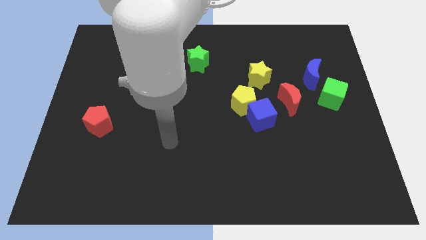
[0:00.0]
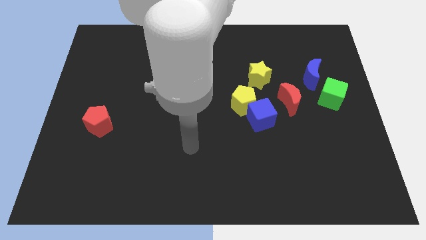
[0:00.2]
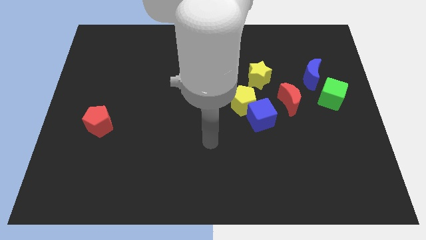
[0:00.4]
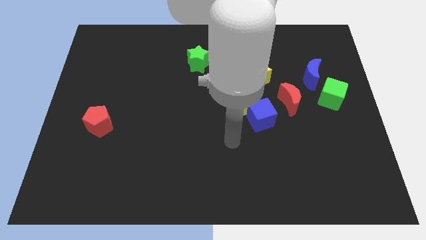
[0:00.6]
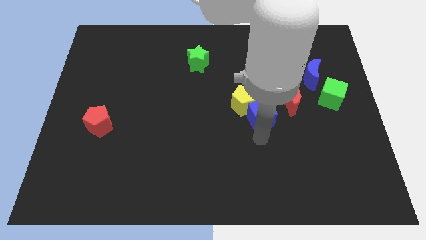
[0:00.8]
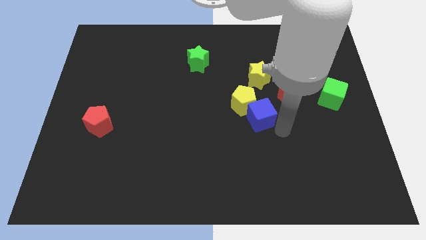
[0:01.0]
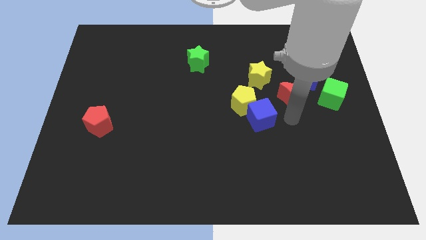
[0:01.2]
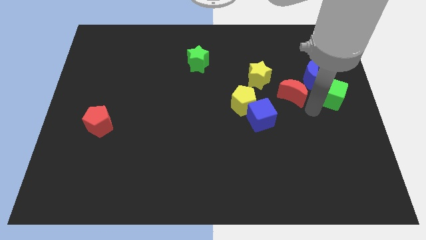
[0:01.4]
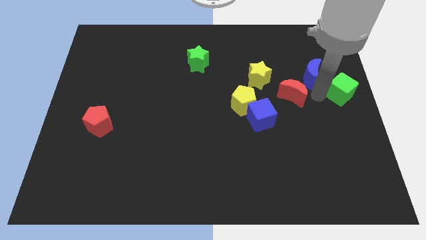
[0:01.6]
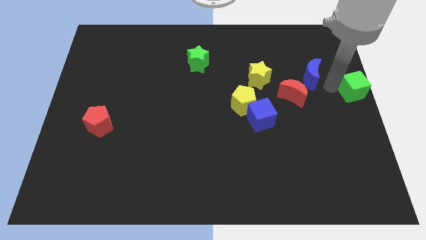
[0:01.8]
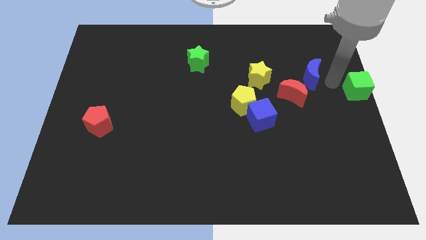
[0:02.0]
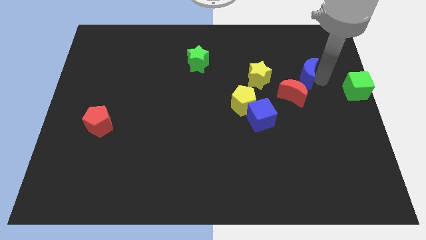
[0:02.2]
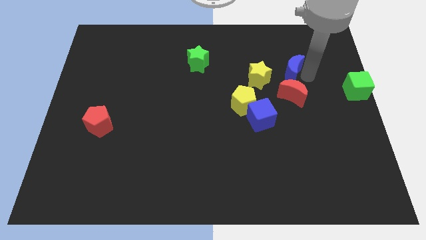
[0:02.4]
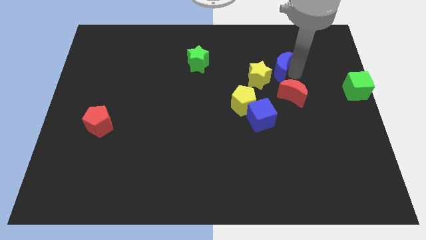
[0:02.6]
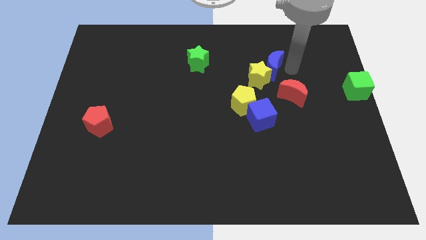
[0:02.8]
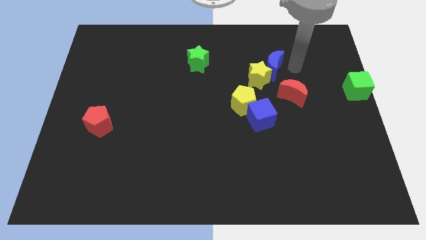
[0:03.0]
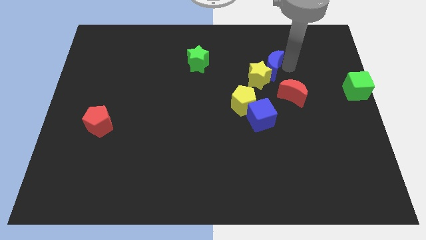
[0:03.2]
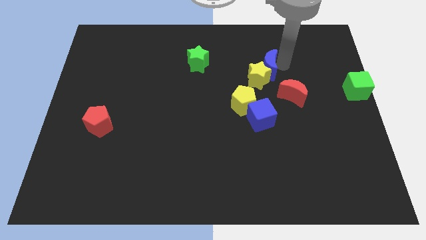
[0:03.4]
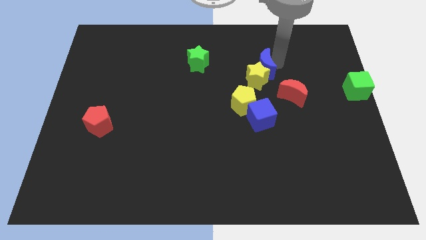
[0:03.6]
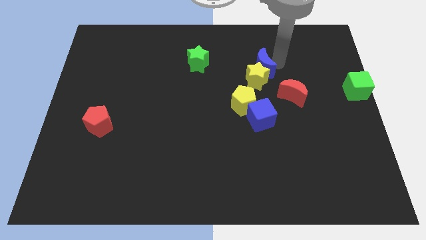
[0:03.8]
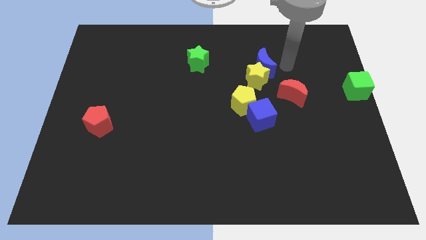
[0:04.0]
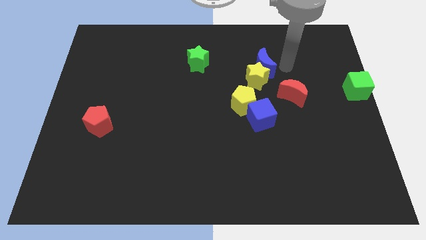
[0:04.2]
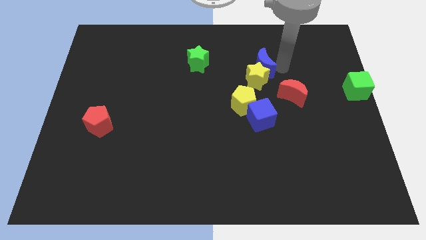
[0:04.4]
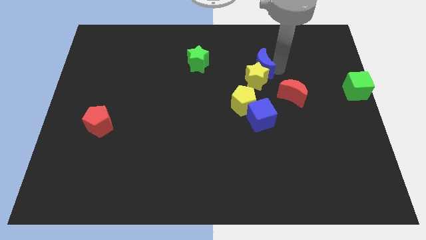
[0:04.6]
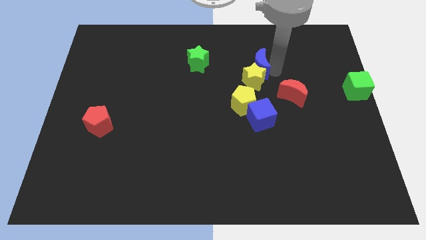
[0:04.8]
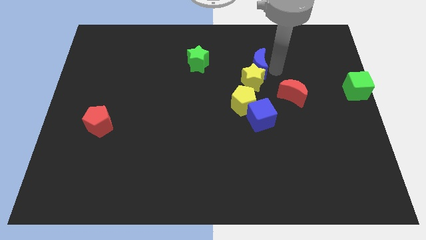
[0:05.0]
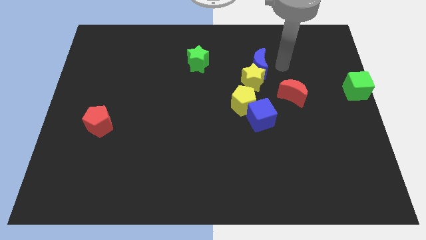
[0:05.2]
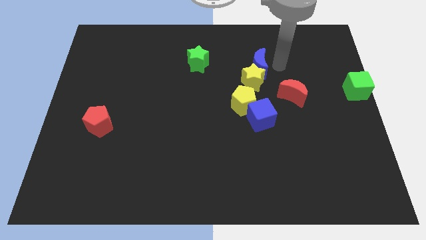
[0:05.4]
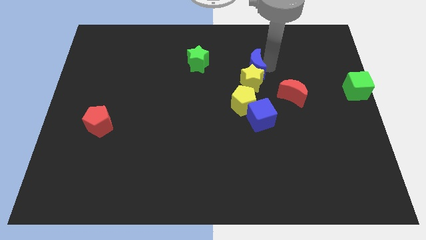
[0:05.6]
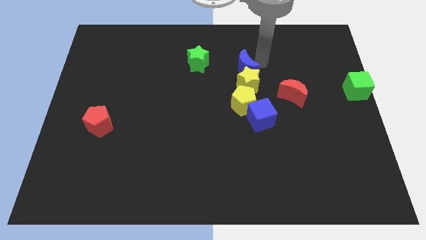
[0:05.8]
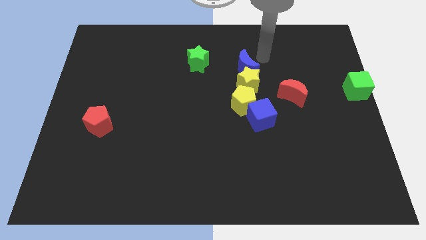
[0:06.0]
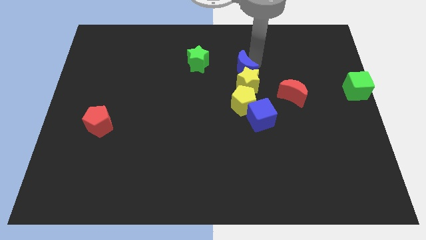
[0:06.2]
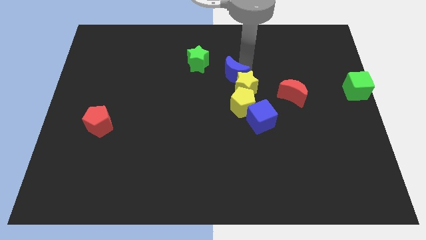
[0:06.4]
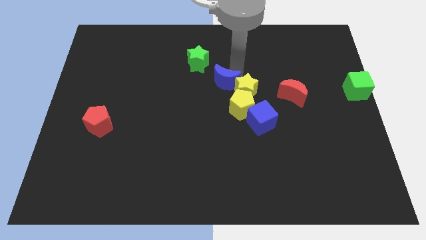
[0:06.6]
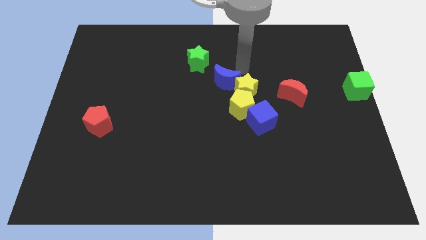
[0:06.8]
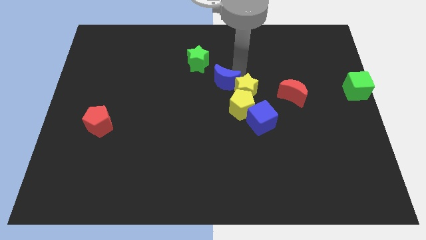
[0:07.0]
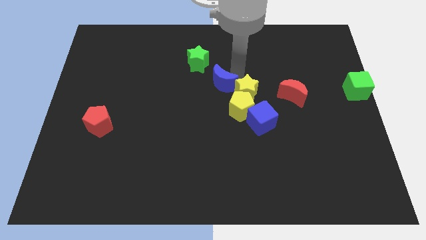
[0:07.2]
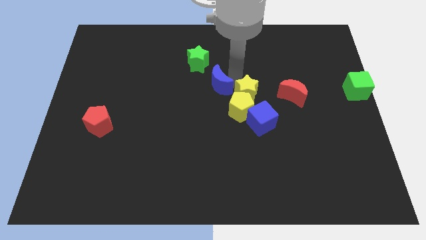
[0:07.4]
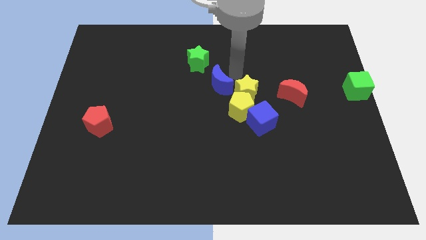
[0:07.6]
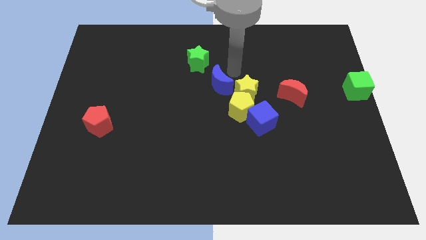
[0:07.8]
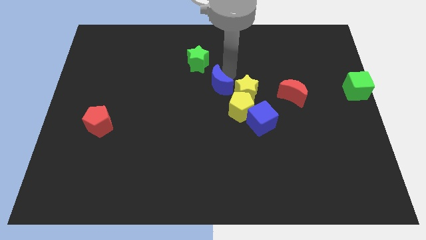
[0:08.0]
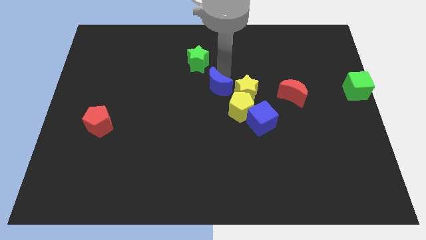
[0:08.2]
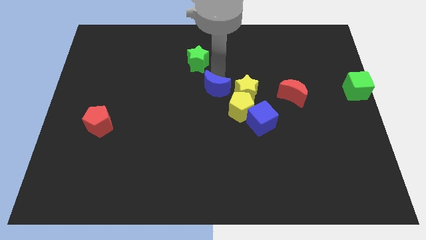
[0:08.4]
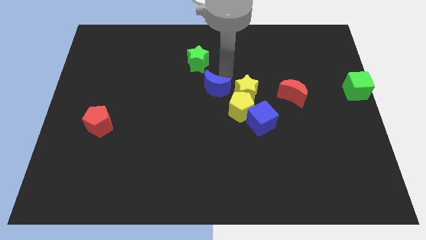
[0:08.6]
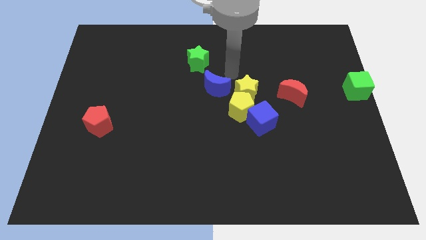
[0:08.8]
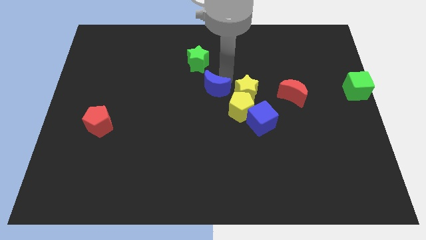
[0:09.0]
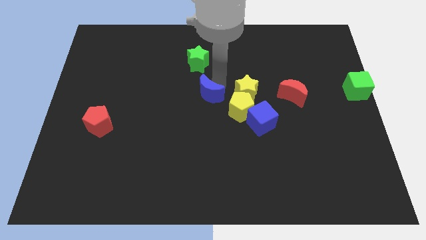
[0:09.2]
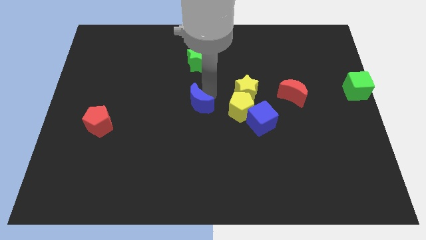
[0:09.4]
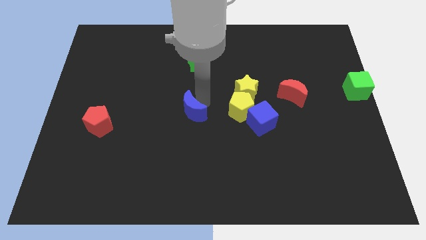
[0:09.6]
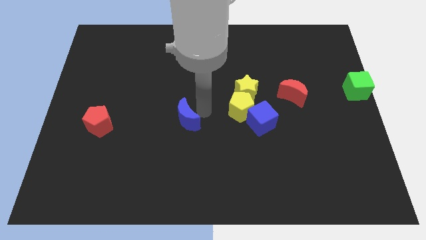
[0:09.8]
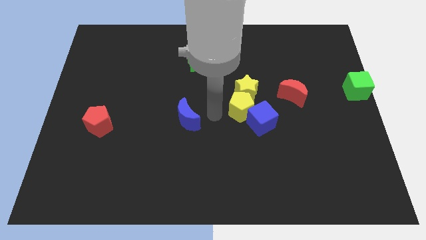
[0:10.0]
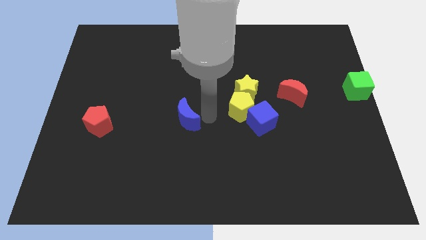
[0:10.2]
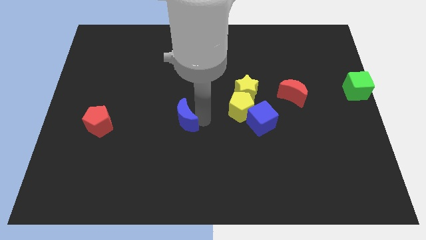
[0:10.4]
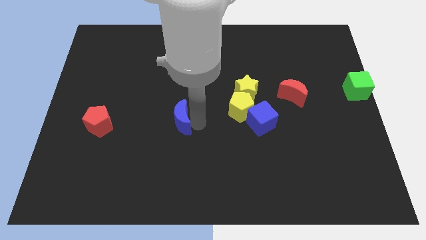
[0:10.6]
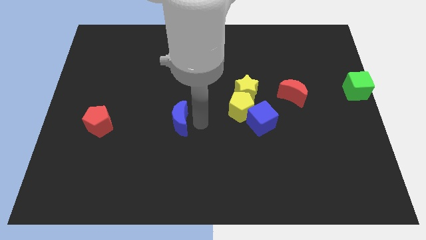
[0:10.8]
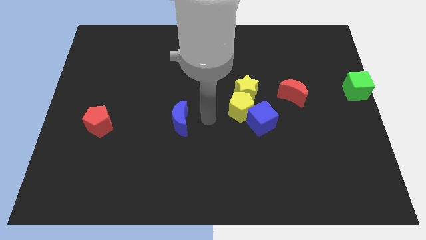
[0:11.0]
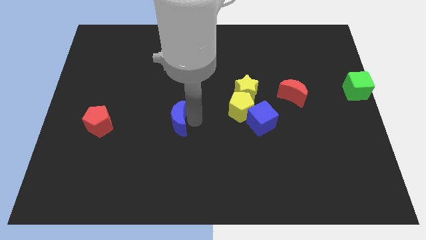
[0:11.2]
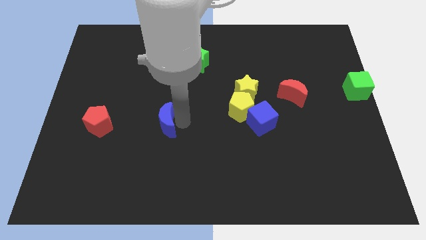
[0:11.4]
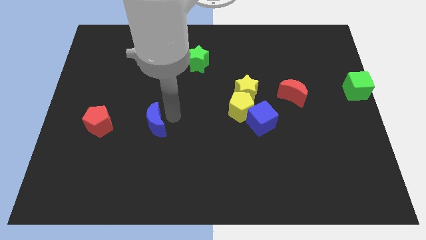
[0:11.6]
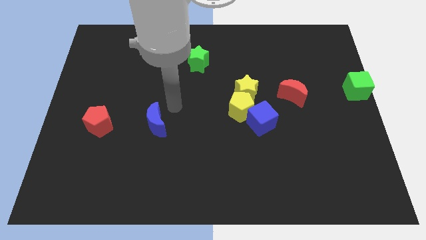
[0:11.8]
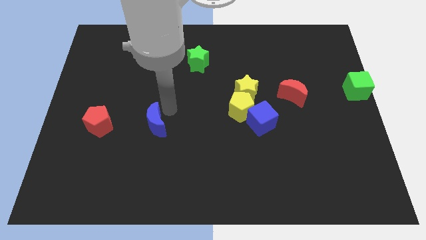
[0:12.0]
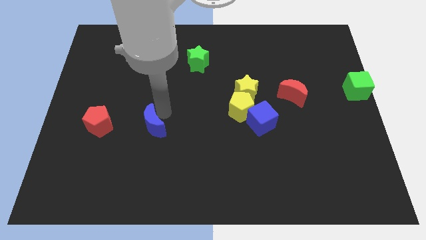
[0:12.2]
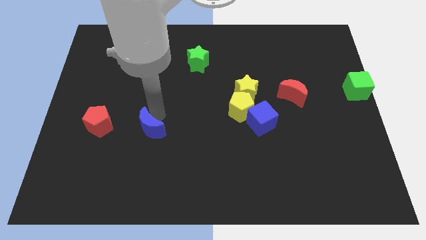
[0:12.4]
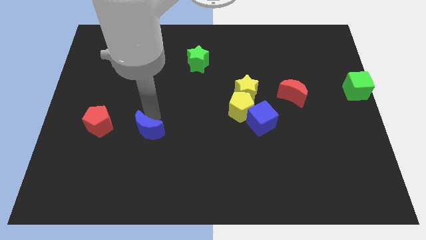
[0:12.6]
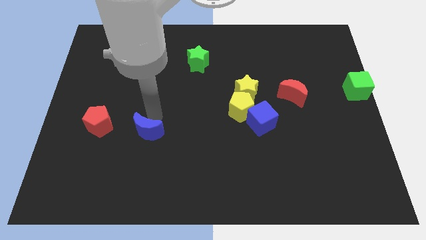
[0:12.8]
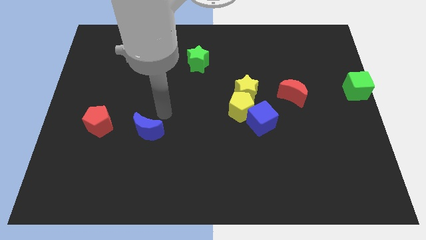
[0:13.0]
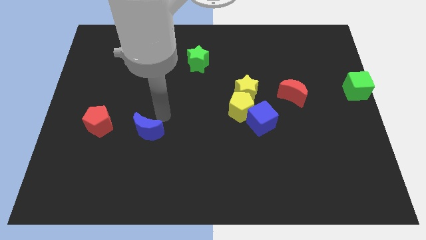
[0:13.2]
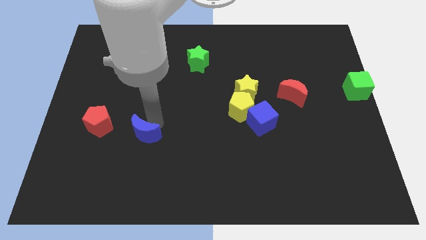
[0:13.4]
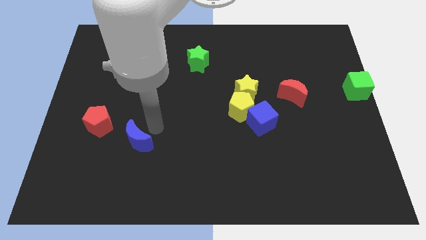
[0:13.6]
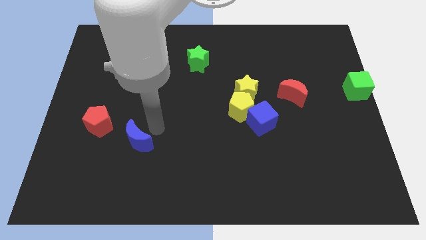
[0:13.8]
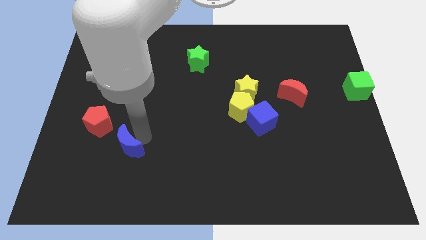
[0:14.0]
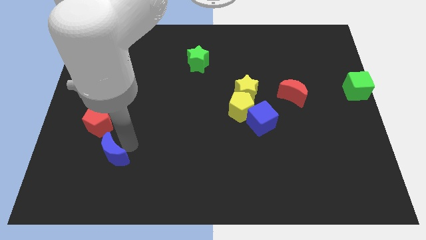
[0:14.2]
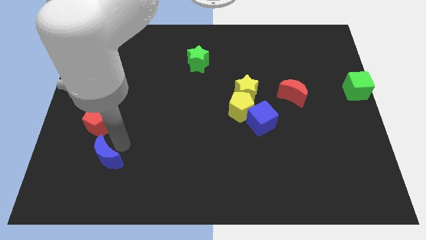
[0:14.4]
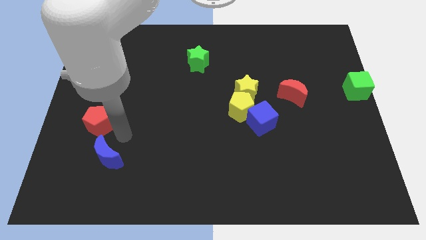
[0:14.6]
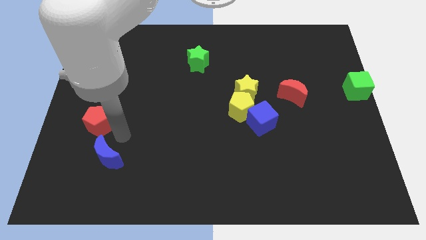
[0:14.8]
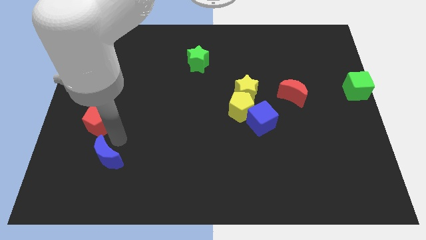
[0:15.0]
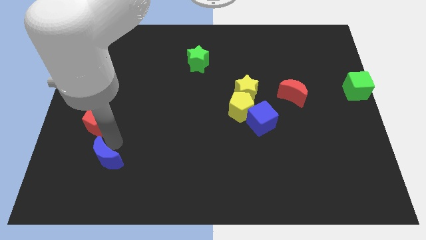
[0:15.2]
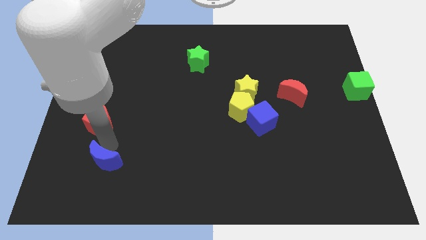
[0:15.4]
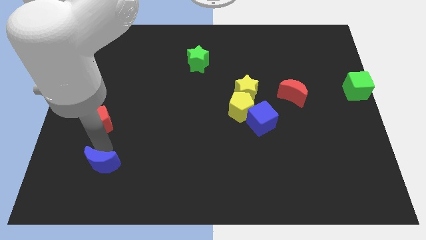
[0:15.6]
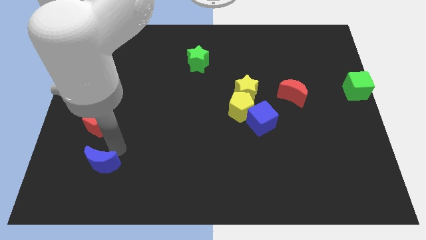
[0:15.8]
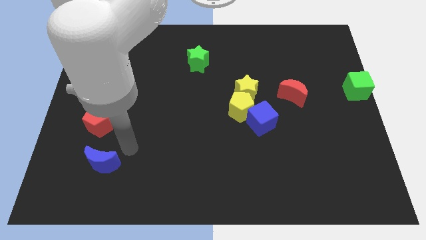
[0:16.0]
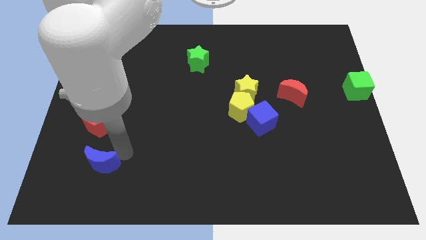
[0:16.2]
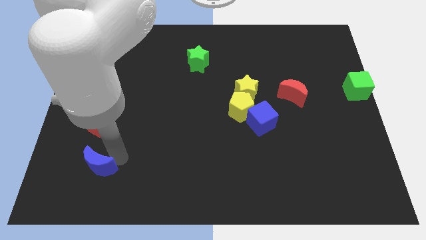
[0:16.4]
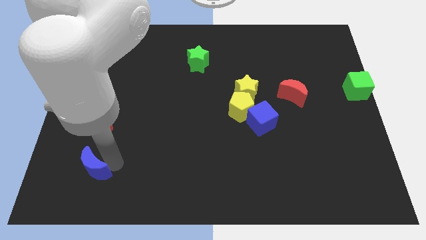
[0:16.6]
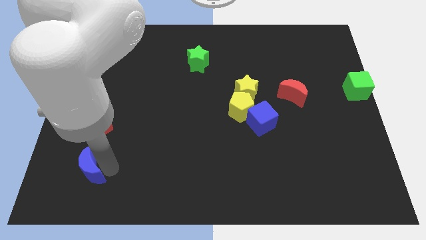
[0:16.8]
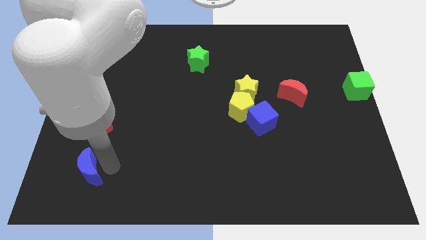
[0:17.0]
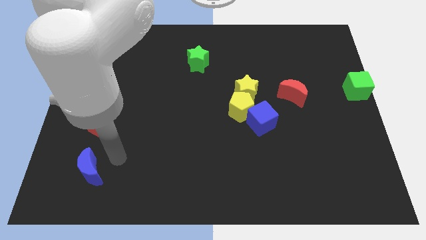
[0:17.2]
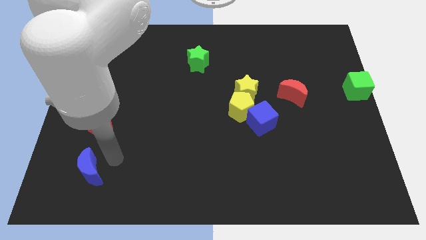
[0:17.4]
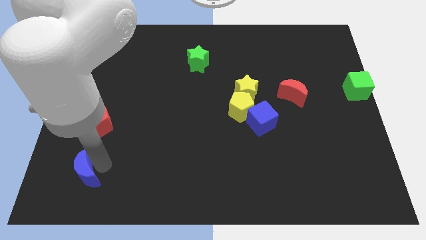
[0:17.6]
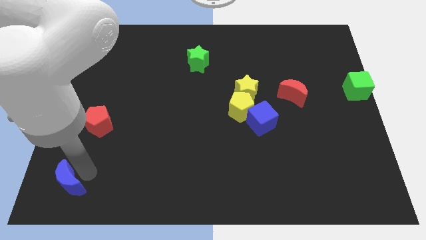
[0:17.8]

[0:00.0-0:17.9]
push the blue moon to the bottom left of the board
